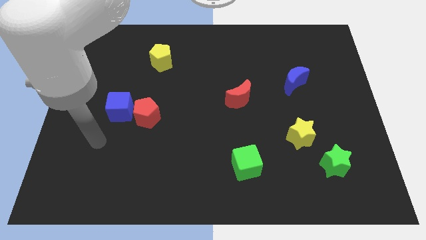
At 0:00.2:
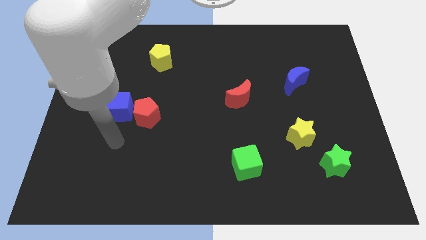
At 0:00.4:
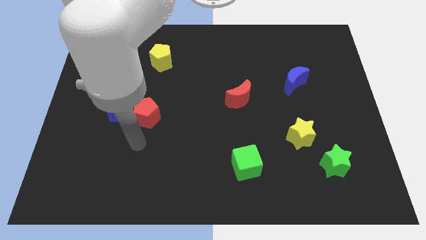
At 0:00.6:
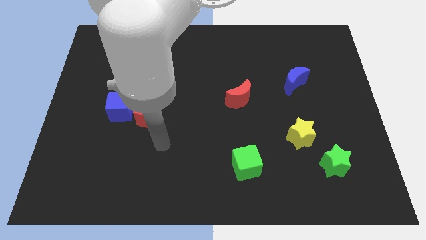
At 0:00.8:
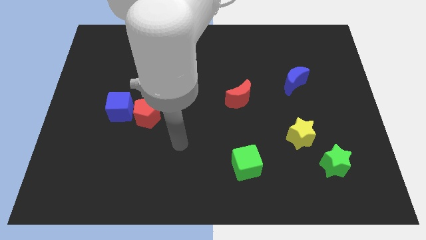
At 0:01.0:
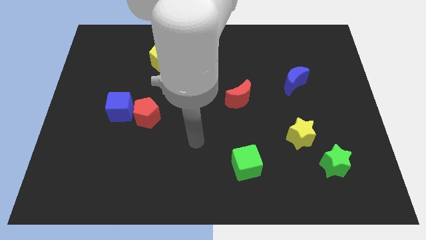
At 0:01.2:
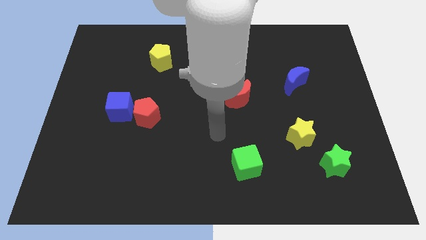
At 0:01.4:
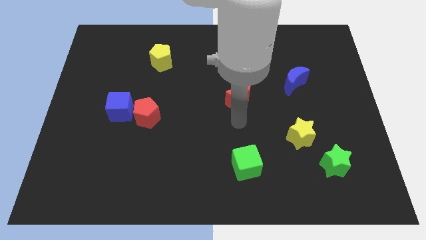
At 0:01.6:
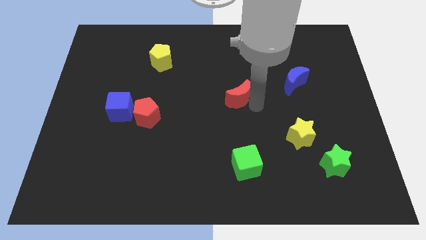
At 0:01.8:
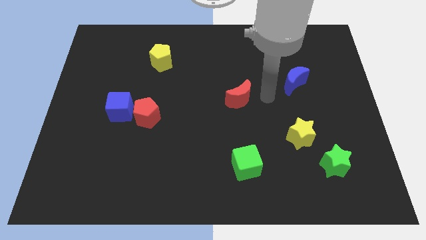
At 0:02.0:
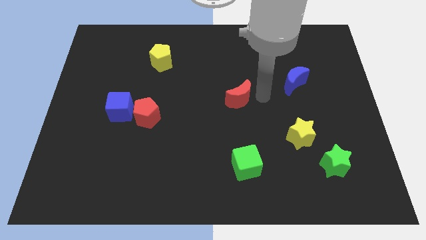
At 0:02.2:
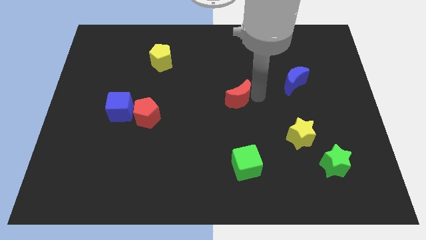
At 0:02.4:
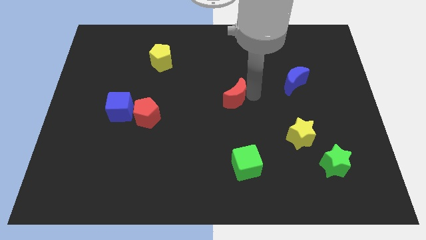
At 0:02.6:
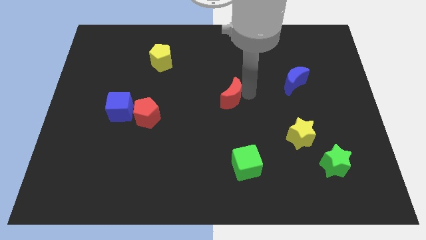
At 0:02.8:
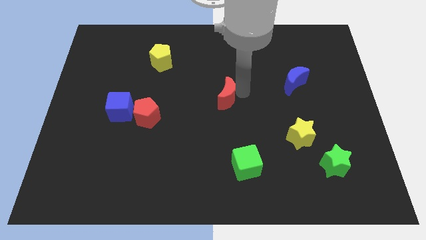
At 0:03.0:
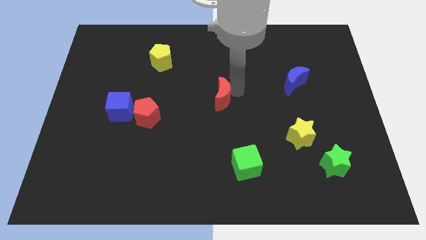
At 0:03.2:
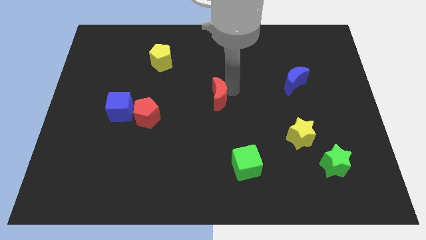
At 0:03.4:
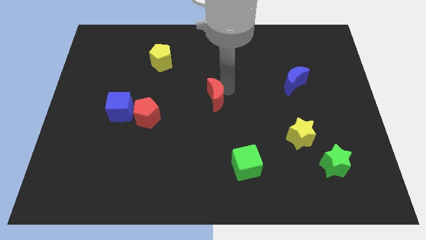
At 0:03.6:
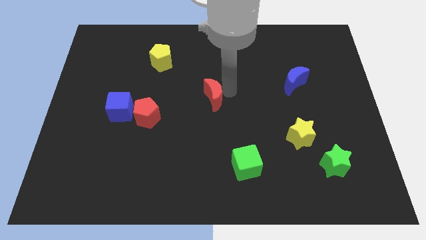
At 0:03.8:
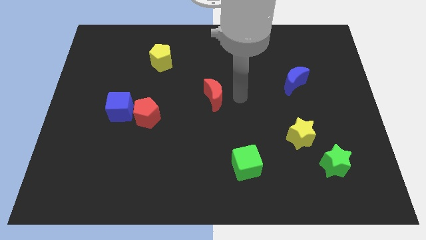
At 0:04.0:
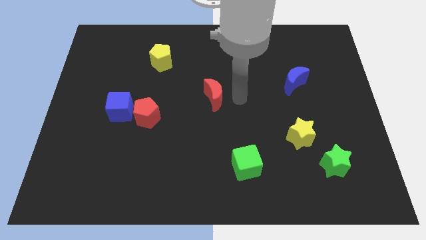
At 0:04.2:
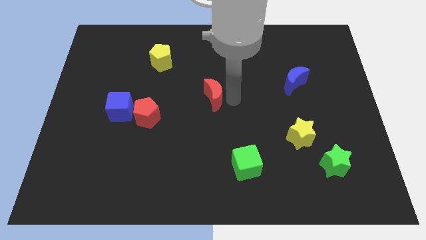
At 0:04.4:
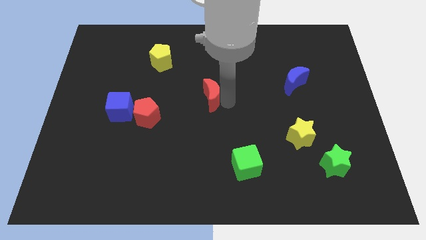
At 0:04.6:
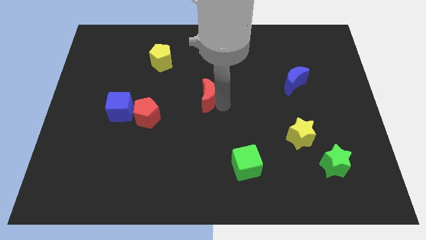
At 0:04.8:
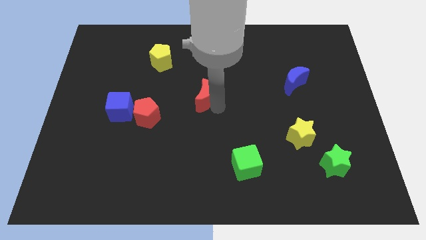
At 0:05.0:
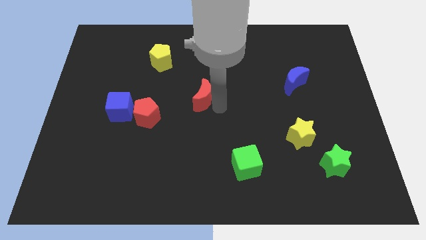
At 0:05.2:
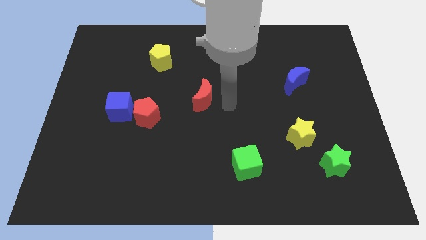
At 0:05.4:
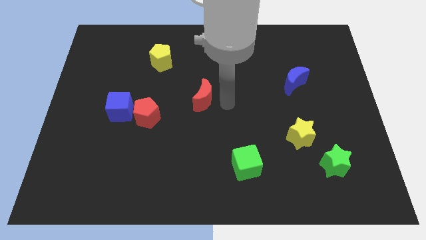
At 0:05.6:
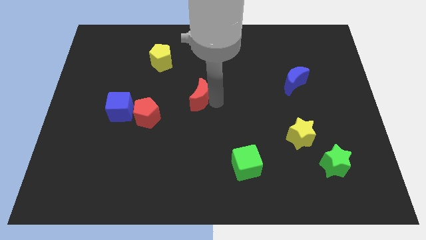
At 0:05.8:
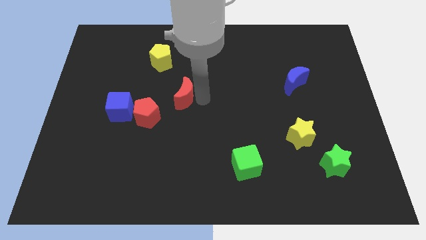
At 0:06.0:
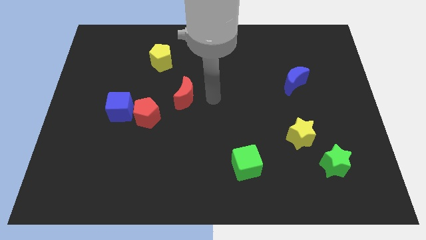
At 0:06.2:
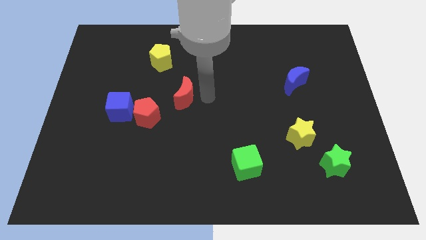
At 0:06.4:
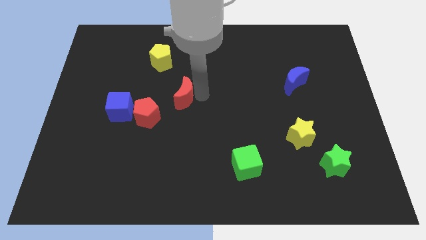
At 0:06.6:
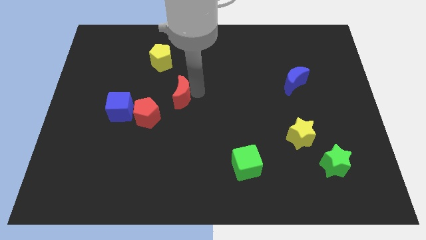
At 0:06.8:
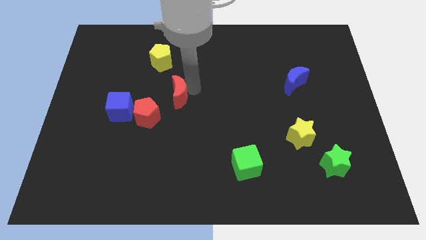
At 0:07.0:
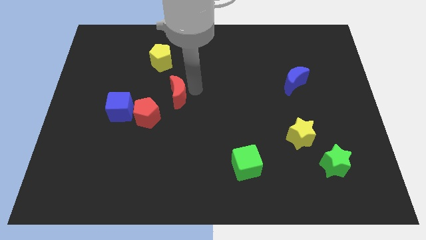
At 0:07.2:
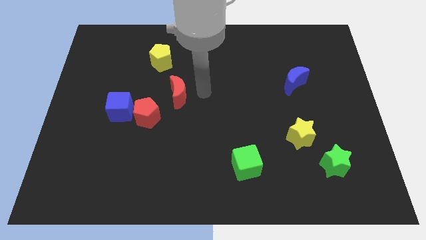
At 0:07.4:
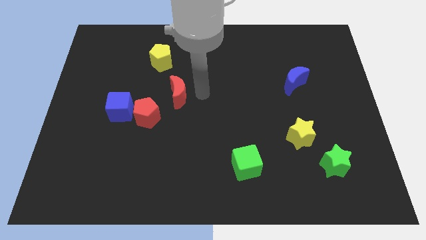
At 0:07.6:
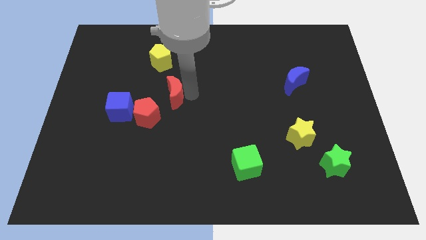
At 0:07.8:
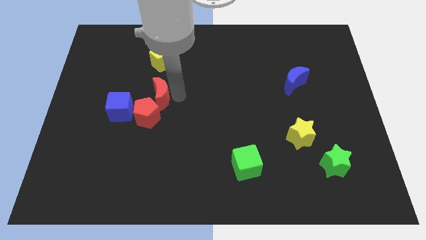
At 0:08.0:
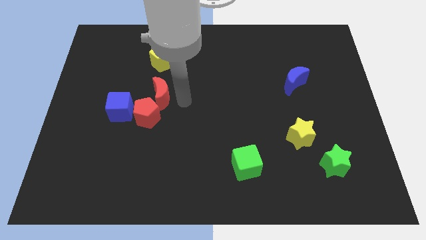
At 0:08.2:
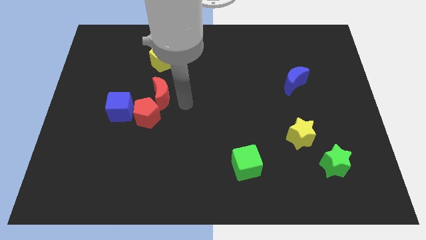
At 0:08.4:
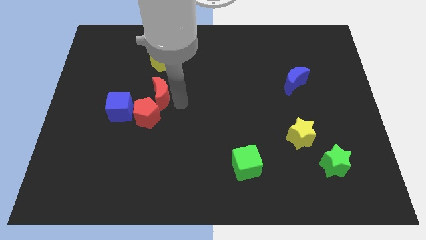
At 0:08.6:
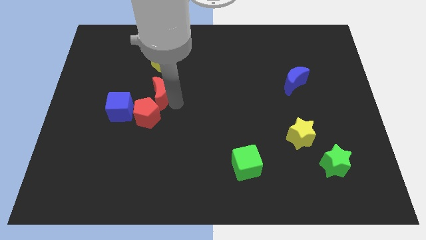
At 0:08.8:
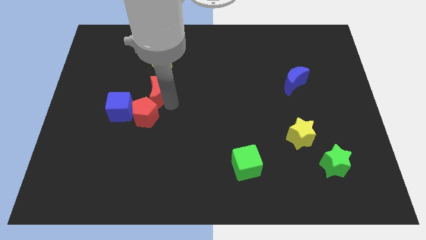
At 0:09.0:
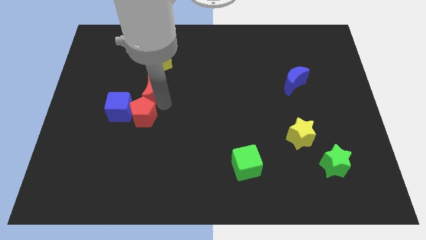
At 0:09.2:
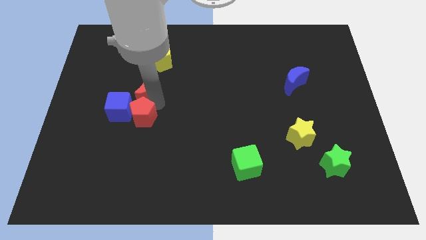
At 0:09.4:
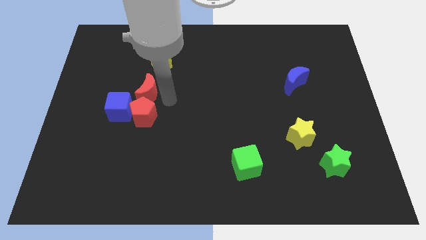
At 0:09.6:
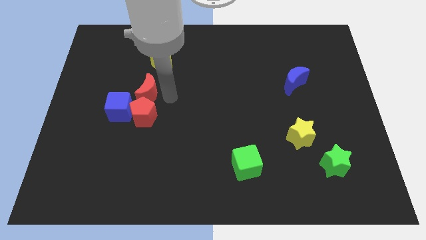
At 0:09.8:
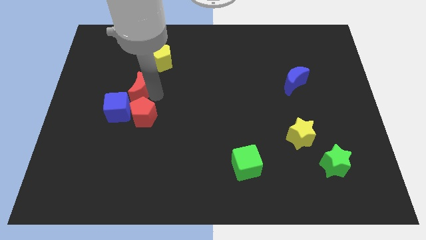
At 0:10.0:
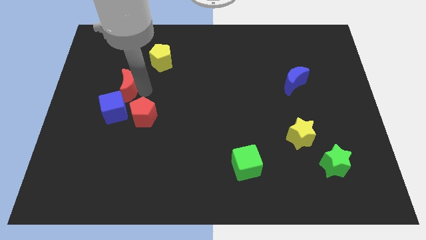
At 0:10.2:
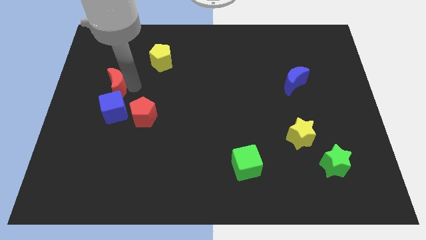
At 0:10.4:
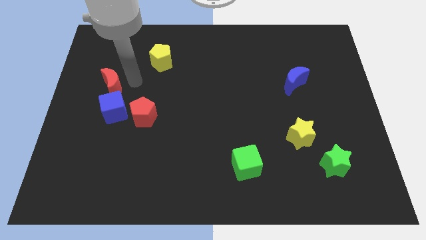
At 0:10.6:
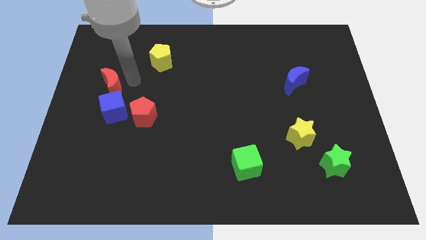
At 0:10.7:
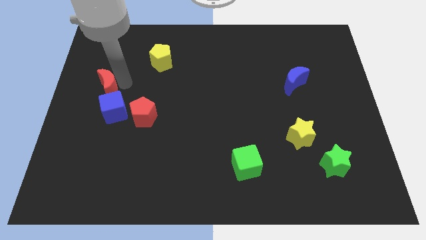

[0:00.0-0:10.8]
move the red moon to the left side of the board

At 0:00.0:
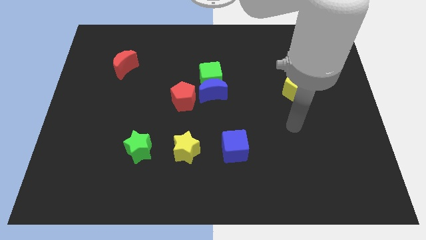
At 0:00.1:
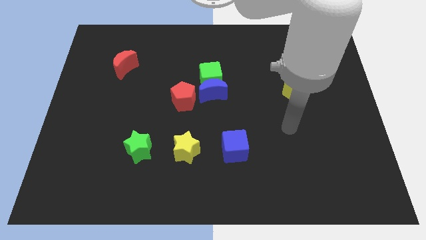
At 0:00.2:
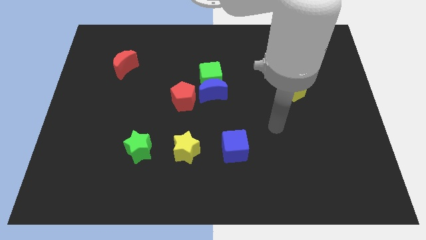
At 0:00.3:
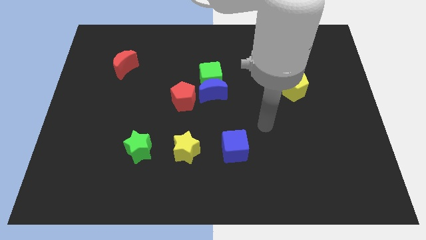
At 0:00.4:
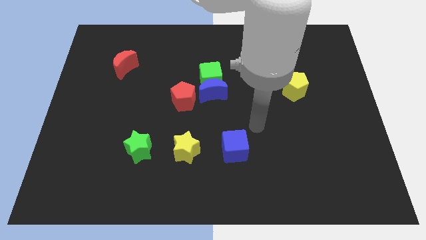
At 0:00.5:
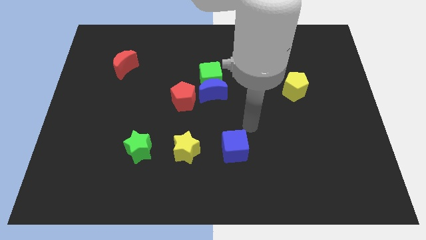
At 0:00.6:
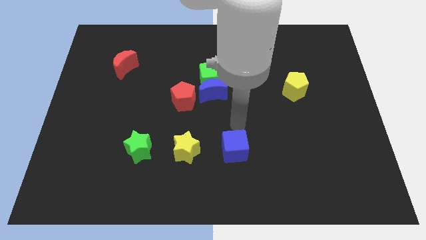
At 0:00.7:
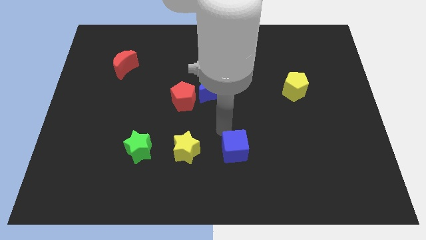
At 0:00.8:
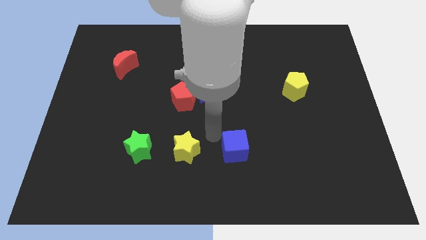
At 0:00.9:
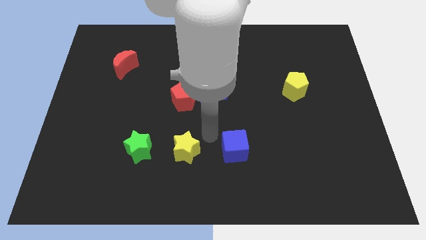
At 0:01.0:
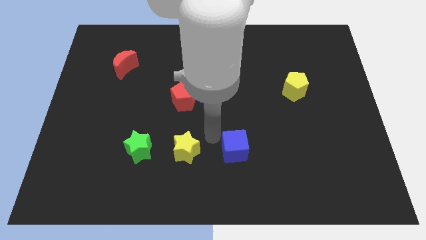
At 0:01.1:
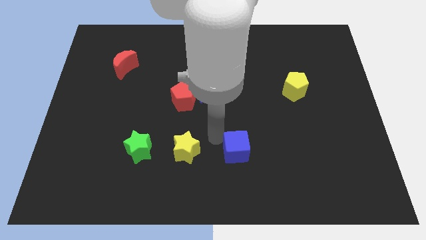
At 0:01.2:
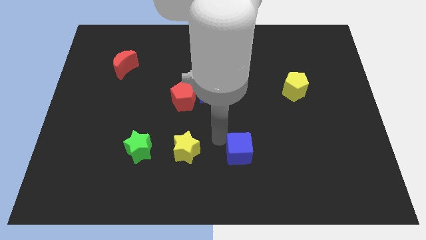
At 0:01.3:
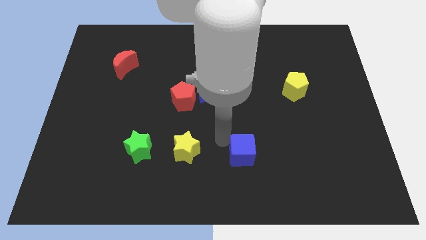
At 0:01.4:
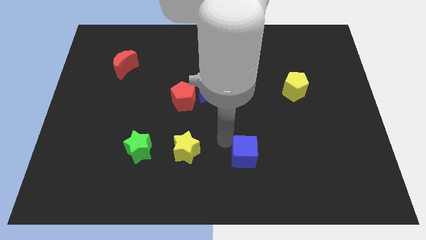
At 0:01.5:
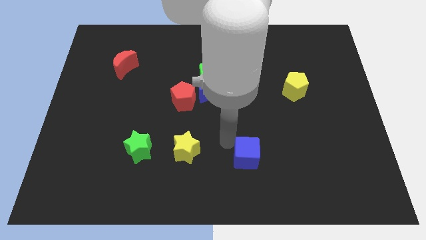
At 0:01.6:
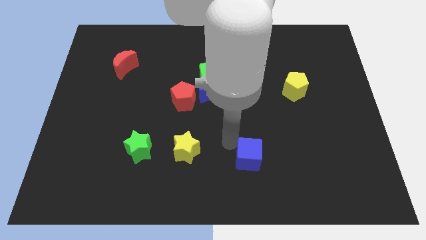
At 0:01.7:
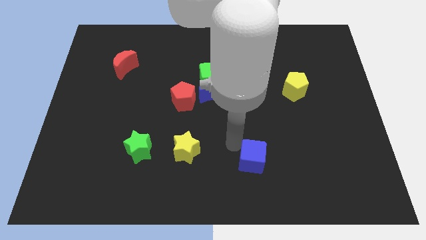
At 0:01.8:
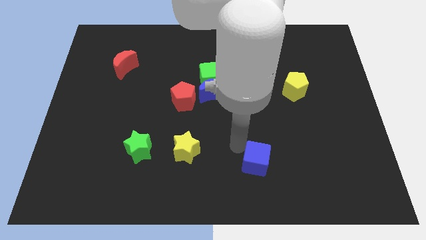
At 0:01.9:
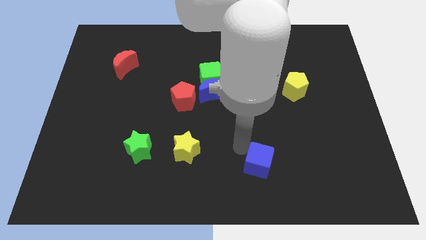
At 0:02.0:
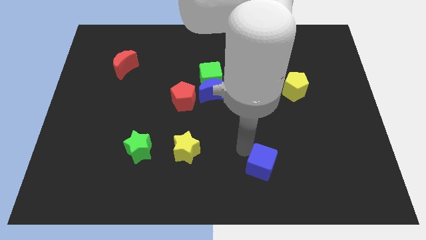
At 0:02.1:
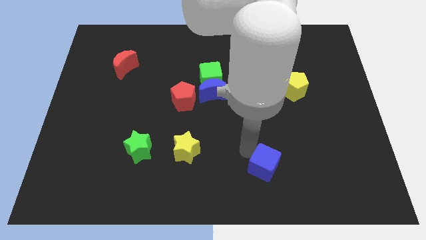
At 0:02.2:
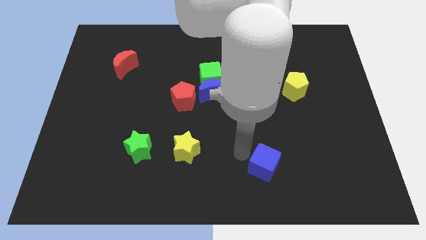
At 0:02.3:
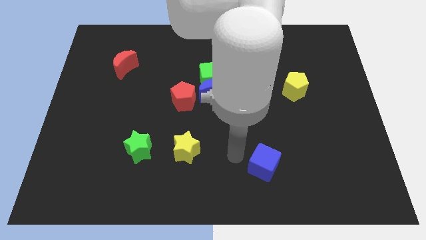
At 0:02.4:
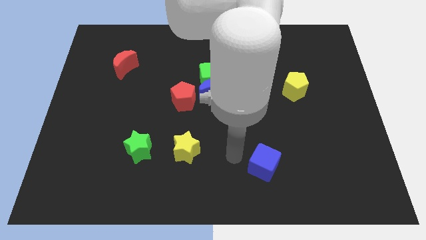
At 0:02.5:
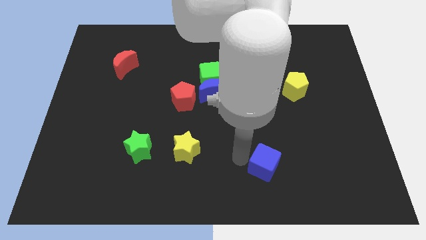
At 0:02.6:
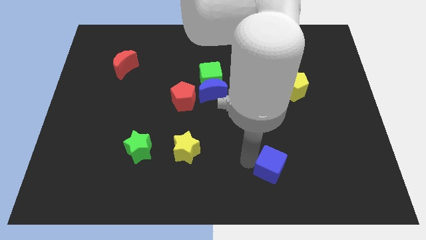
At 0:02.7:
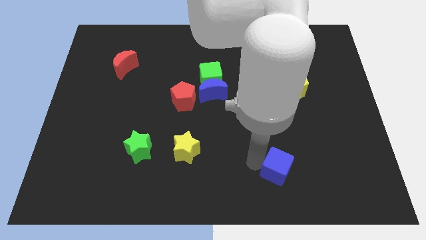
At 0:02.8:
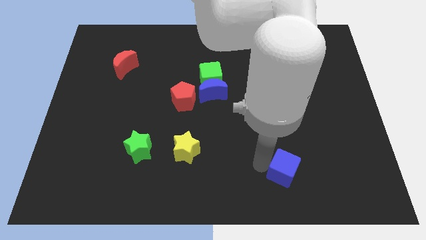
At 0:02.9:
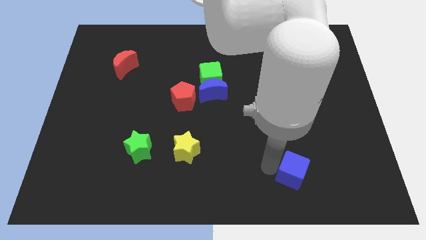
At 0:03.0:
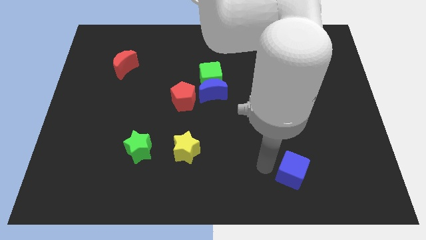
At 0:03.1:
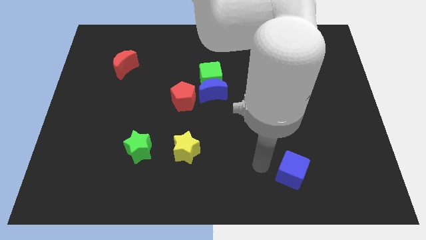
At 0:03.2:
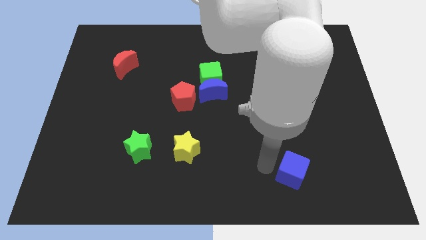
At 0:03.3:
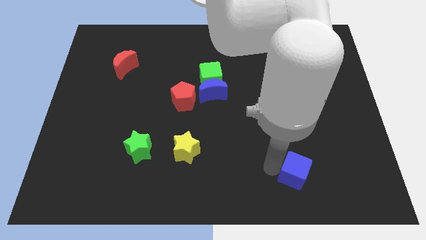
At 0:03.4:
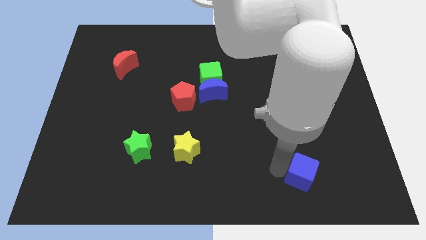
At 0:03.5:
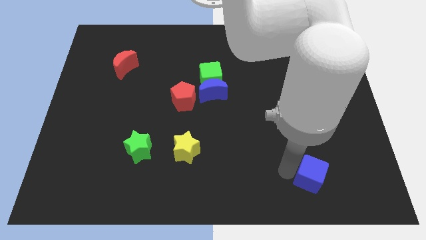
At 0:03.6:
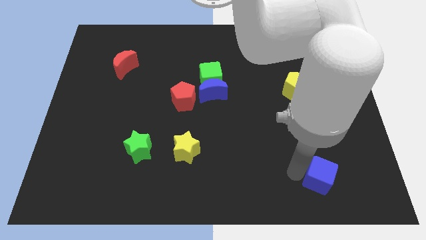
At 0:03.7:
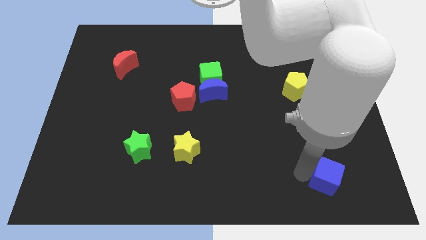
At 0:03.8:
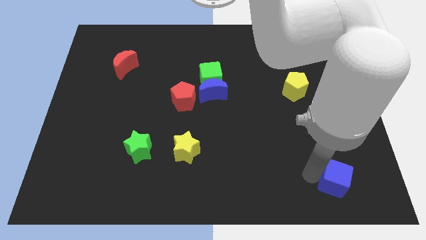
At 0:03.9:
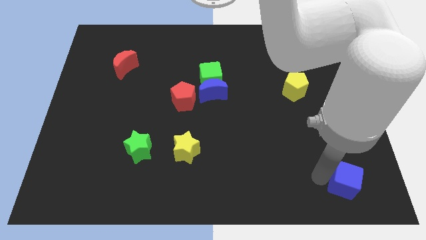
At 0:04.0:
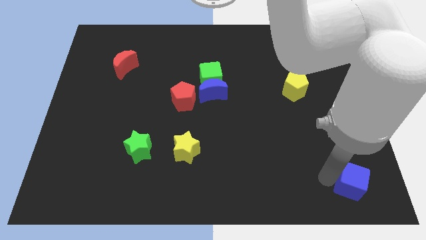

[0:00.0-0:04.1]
slide the blue cube to the bottom right corner
